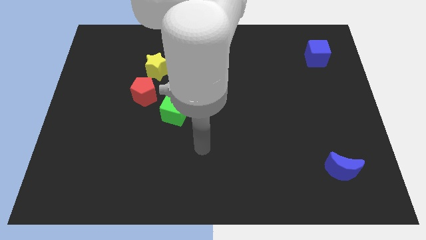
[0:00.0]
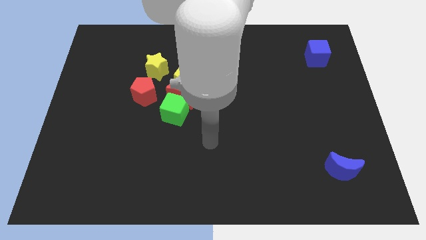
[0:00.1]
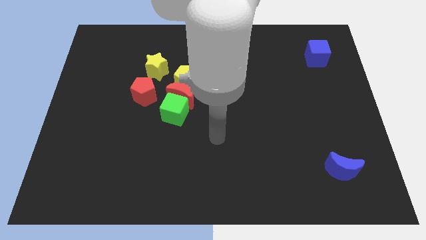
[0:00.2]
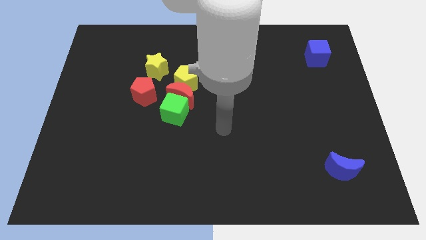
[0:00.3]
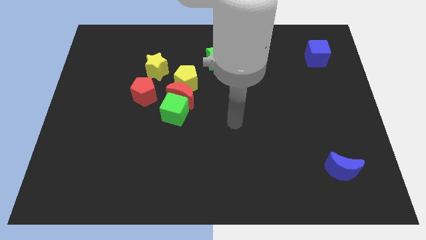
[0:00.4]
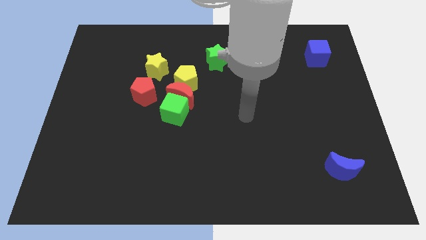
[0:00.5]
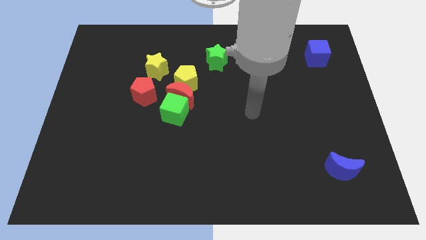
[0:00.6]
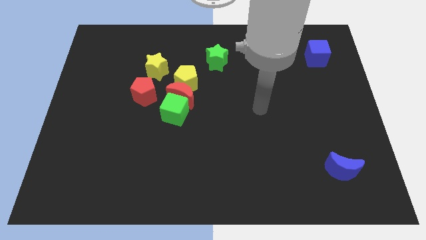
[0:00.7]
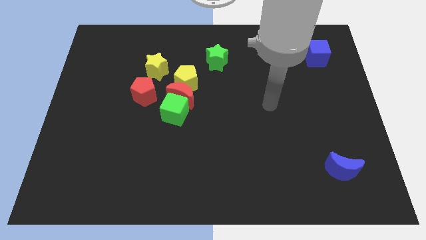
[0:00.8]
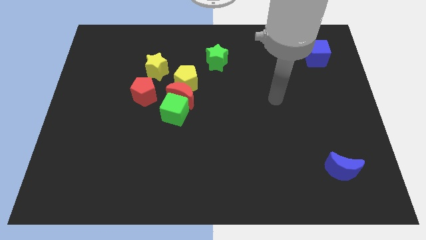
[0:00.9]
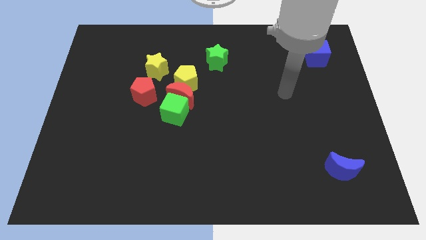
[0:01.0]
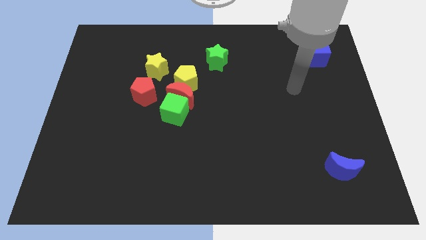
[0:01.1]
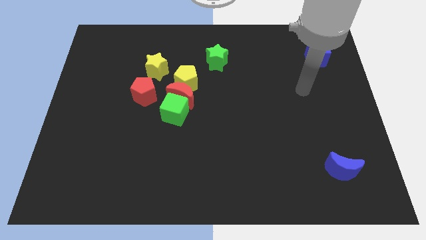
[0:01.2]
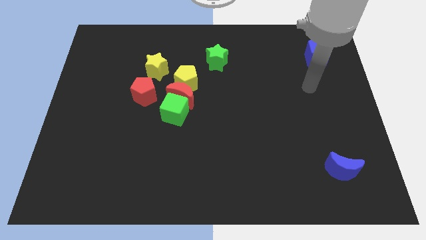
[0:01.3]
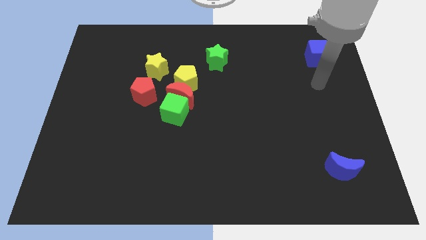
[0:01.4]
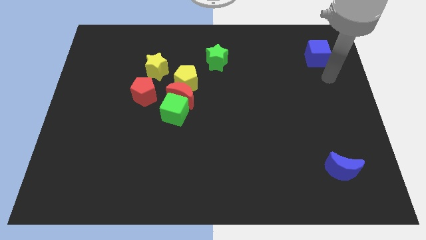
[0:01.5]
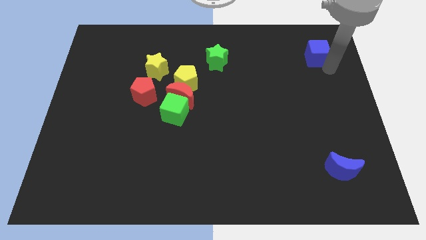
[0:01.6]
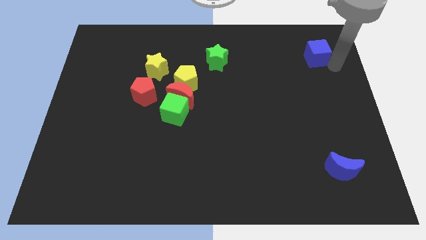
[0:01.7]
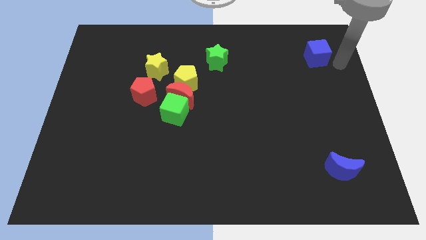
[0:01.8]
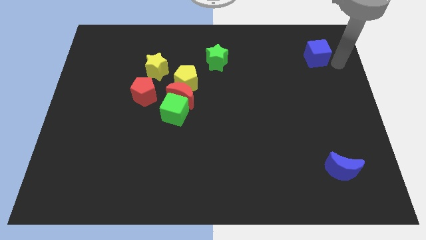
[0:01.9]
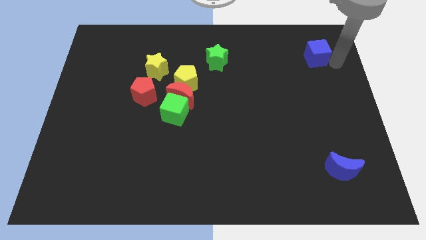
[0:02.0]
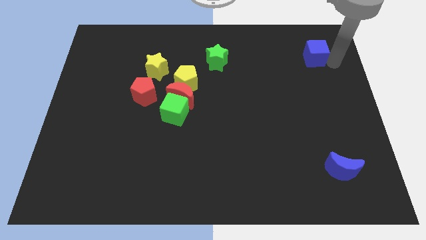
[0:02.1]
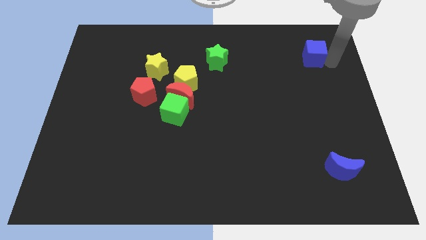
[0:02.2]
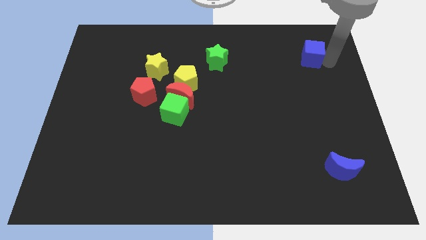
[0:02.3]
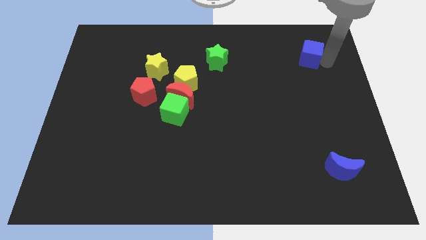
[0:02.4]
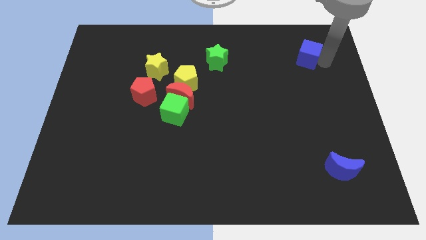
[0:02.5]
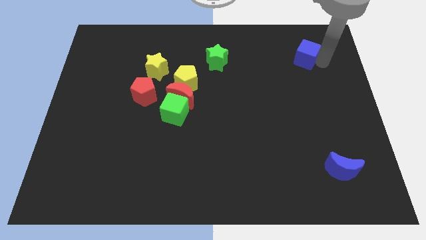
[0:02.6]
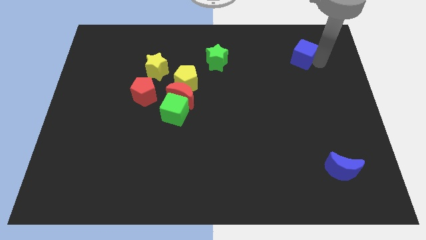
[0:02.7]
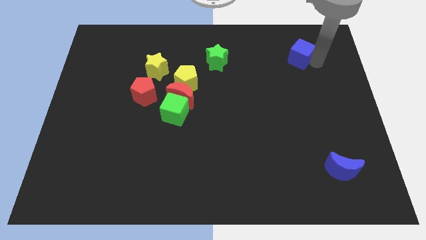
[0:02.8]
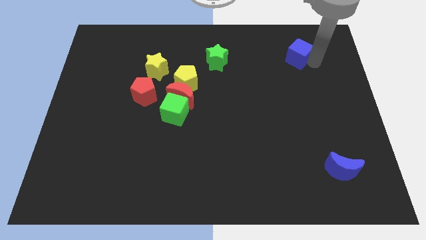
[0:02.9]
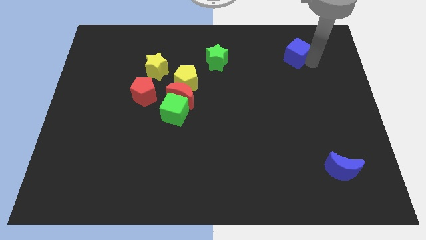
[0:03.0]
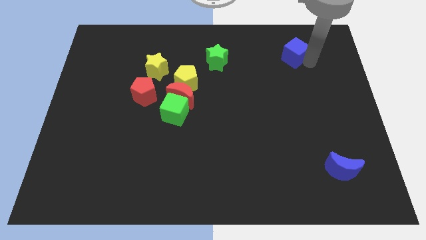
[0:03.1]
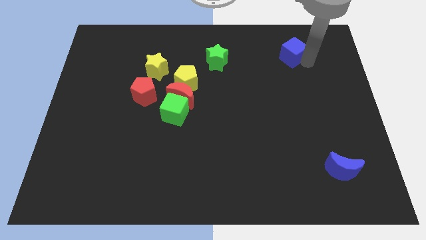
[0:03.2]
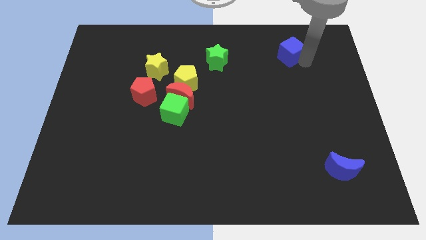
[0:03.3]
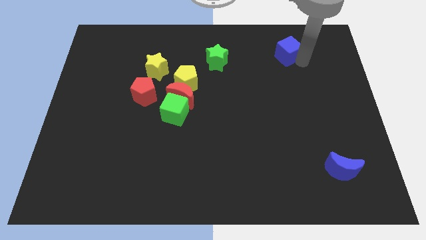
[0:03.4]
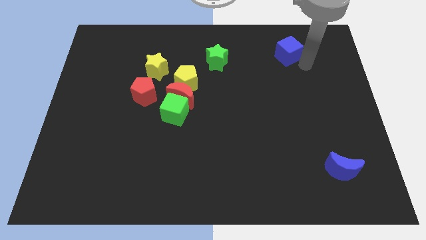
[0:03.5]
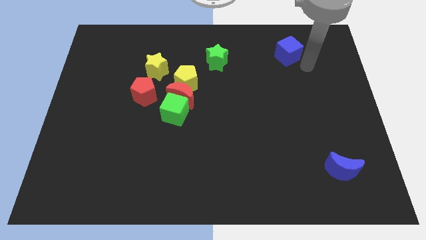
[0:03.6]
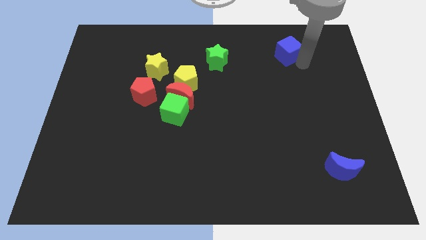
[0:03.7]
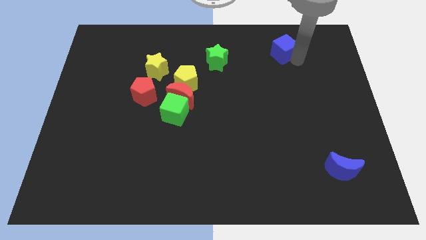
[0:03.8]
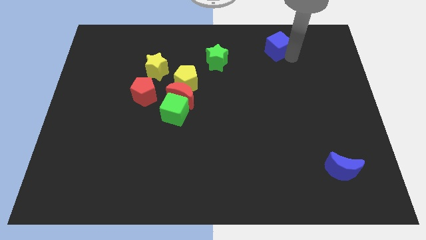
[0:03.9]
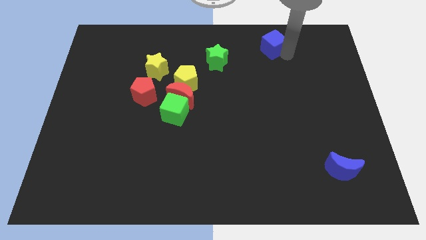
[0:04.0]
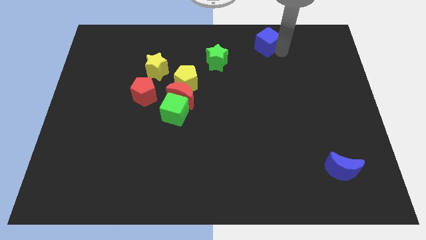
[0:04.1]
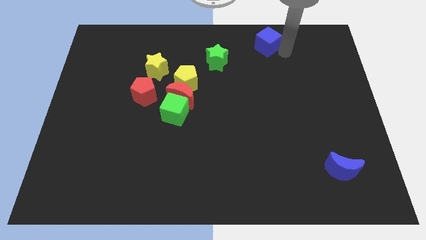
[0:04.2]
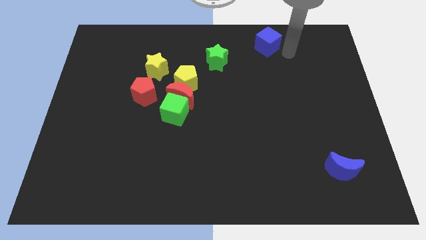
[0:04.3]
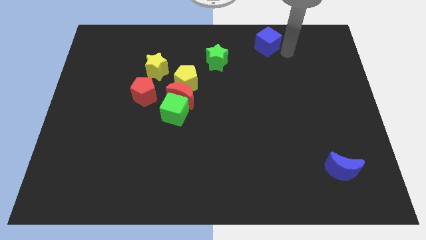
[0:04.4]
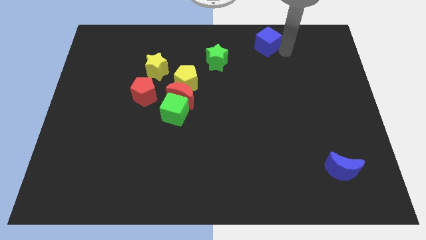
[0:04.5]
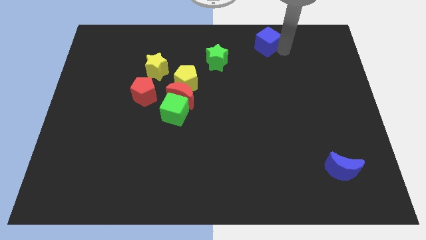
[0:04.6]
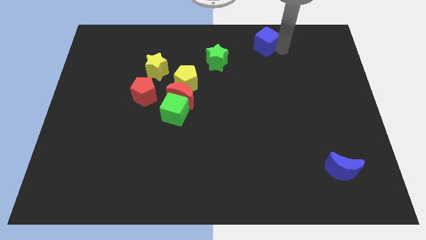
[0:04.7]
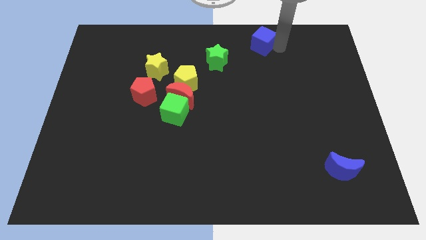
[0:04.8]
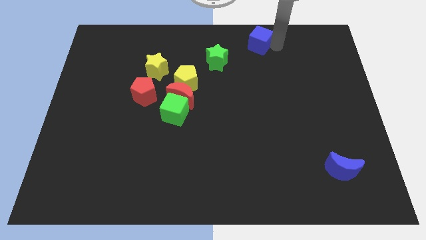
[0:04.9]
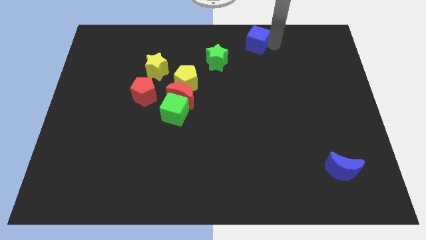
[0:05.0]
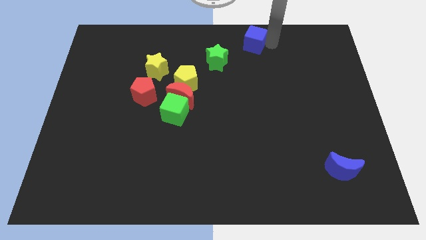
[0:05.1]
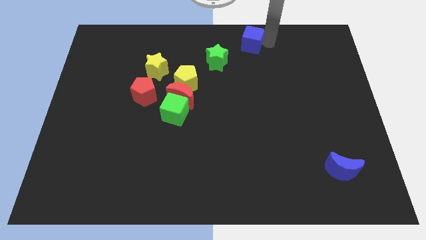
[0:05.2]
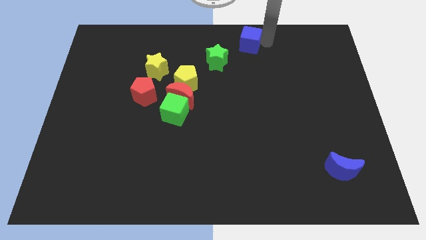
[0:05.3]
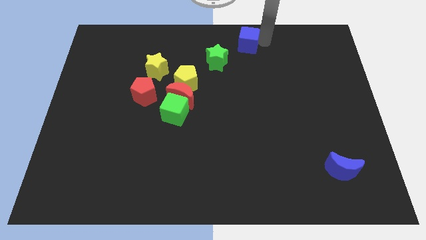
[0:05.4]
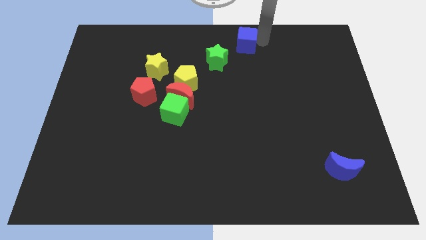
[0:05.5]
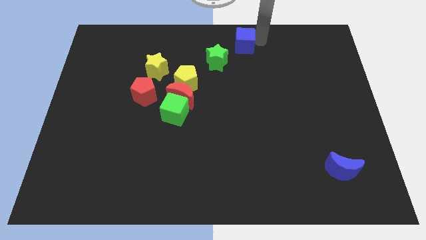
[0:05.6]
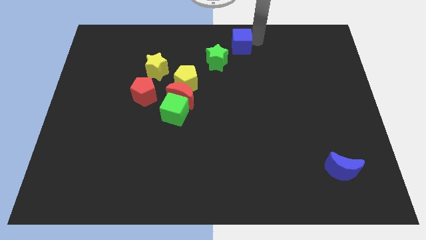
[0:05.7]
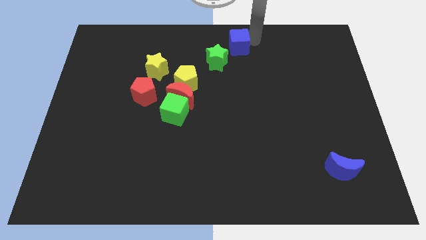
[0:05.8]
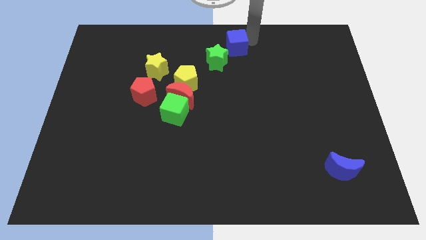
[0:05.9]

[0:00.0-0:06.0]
slide the blue cube left

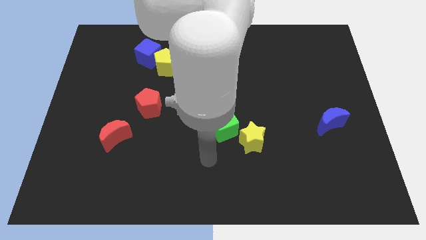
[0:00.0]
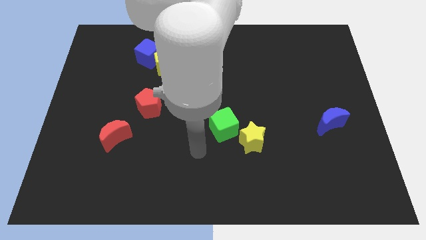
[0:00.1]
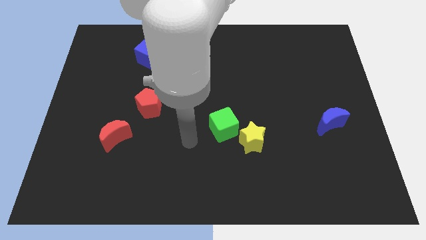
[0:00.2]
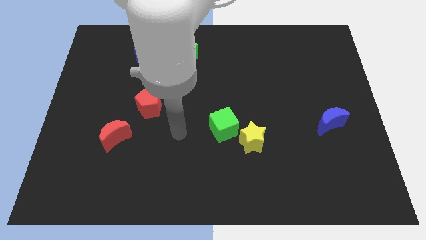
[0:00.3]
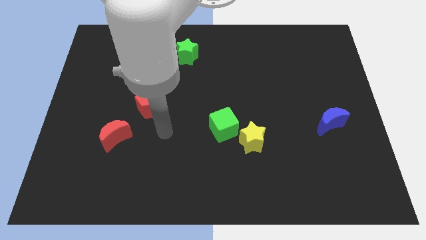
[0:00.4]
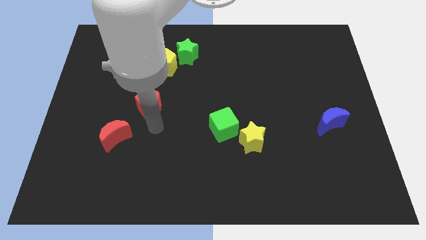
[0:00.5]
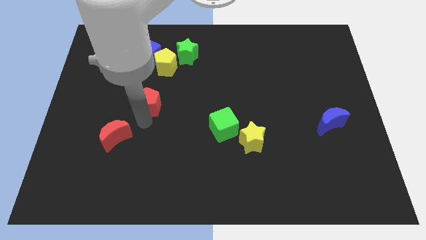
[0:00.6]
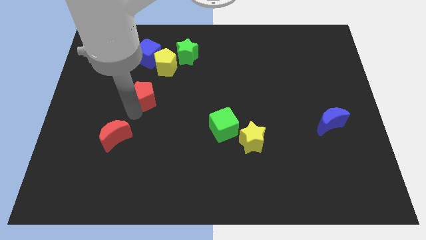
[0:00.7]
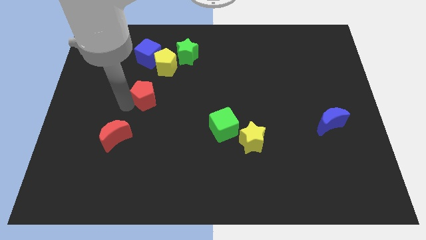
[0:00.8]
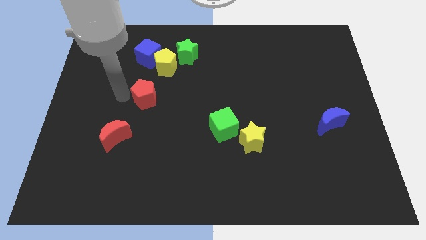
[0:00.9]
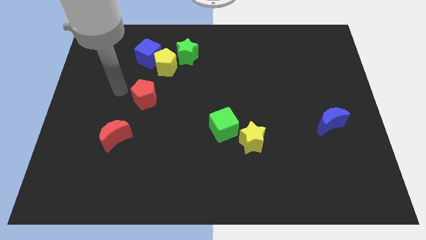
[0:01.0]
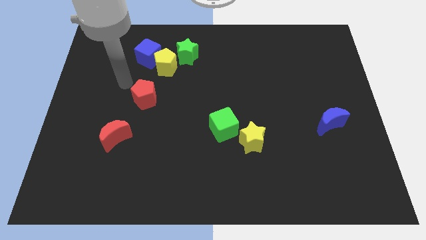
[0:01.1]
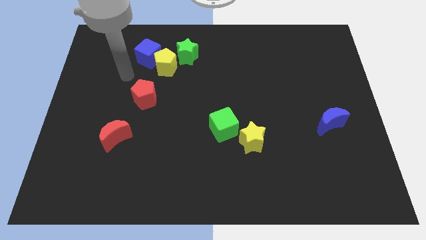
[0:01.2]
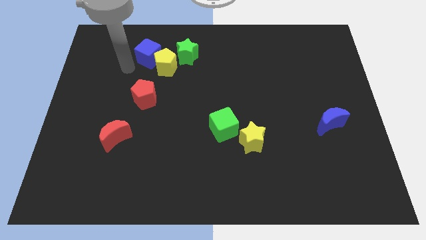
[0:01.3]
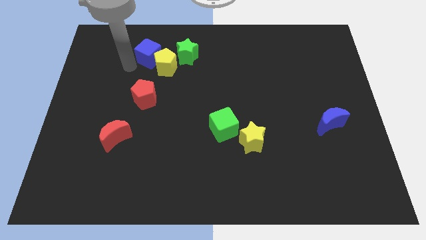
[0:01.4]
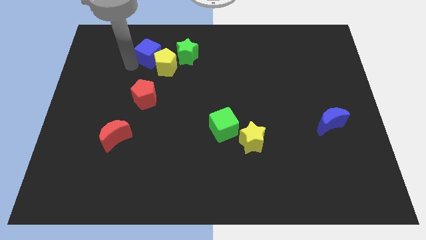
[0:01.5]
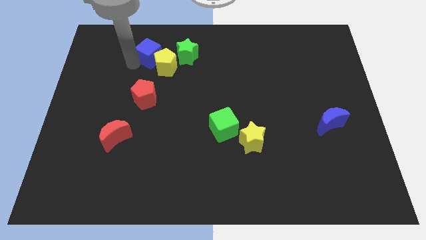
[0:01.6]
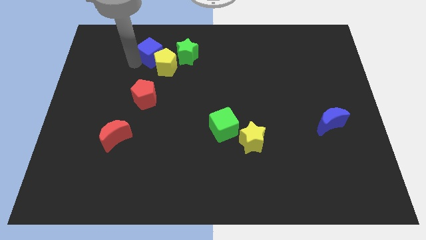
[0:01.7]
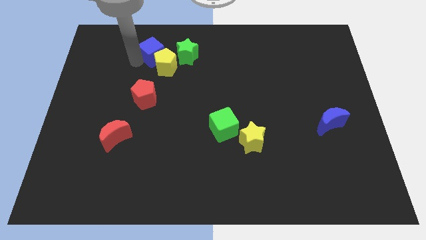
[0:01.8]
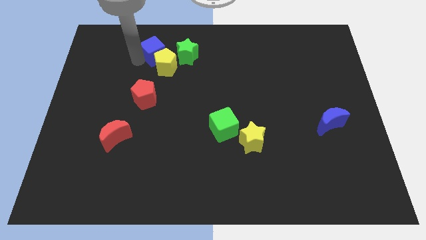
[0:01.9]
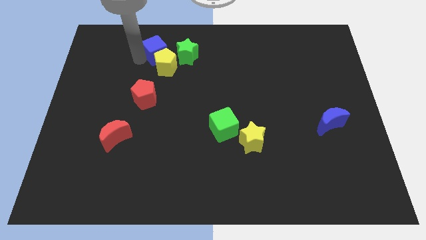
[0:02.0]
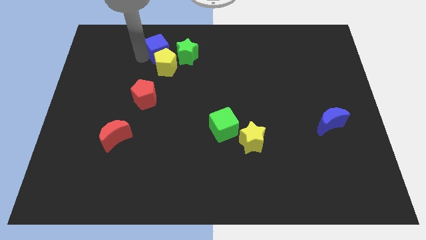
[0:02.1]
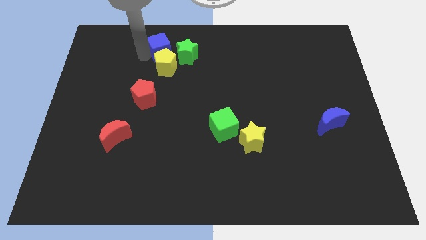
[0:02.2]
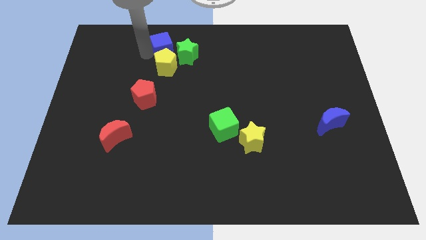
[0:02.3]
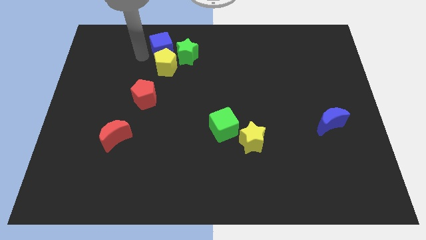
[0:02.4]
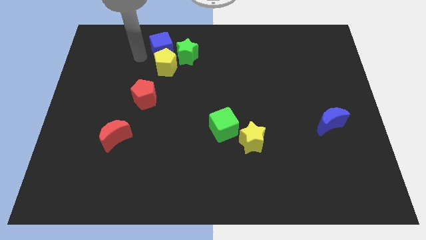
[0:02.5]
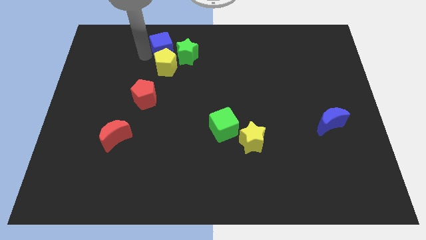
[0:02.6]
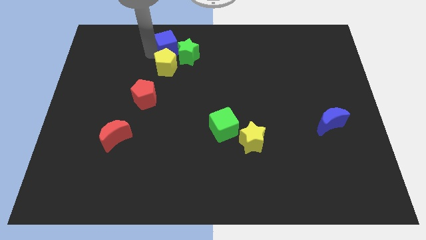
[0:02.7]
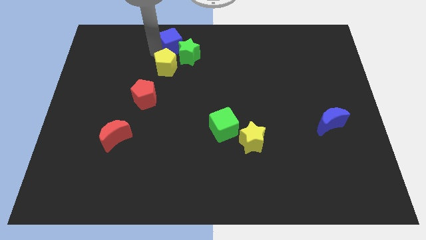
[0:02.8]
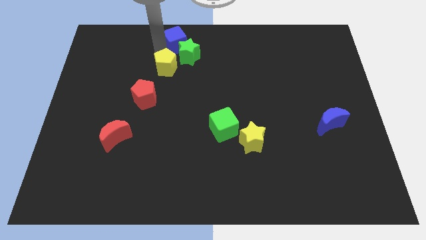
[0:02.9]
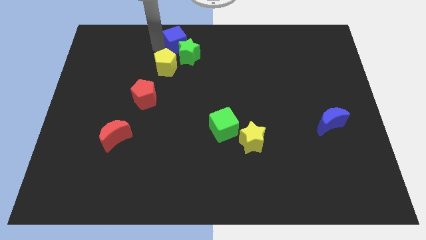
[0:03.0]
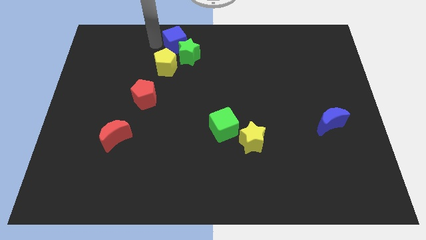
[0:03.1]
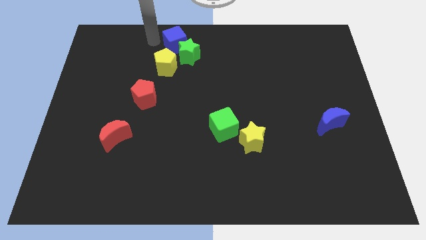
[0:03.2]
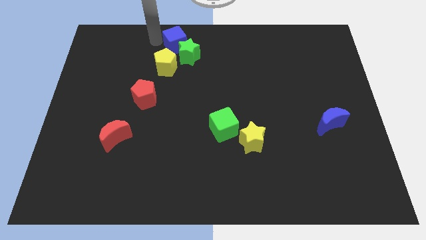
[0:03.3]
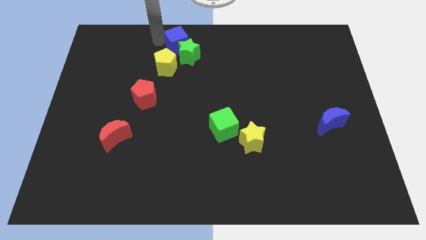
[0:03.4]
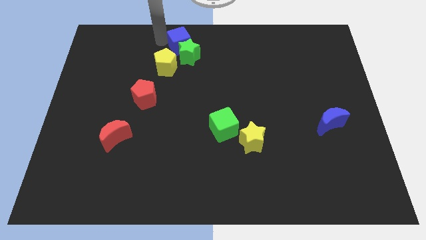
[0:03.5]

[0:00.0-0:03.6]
move the blue cube to the right a little
